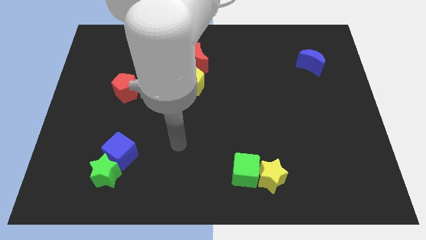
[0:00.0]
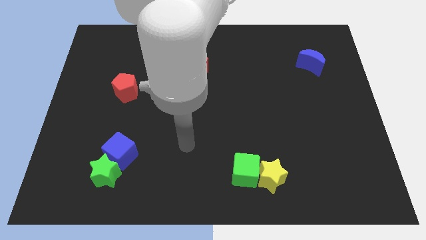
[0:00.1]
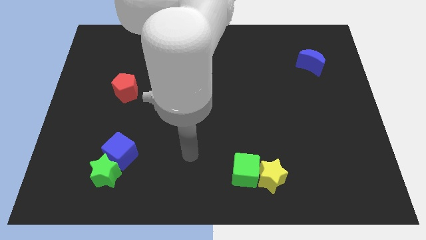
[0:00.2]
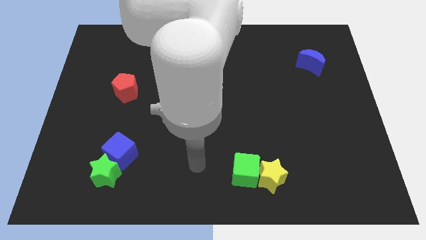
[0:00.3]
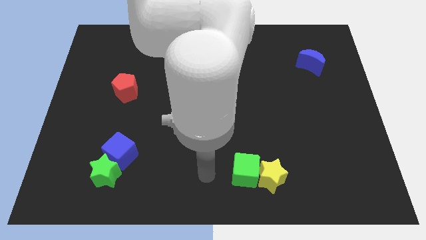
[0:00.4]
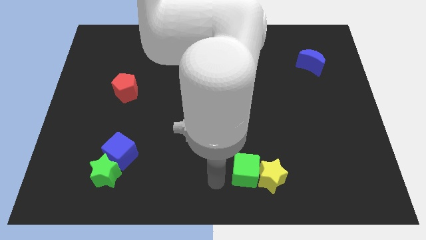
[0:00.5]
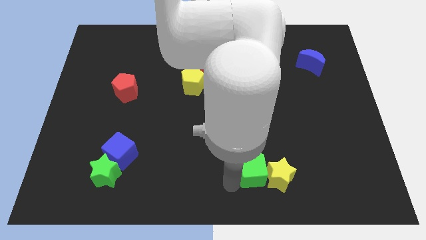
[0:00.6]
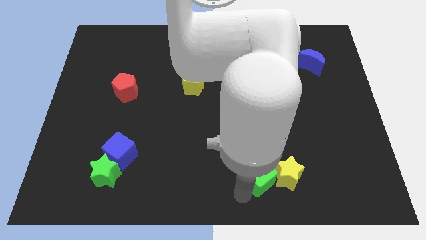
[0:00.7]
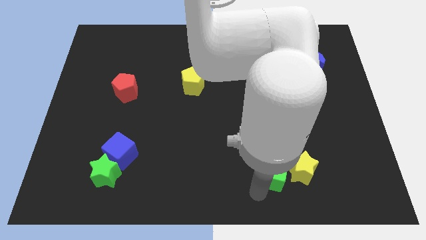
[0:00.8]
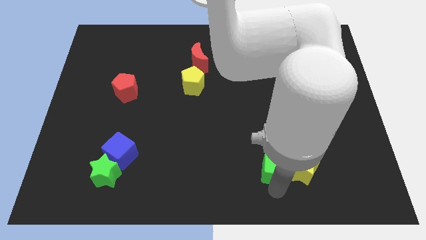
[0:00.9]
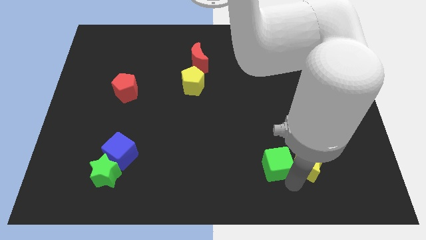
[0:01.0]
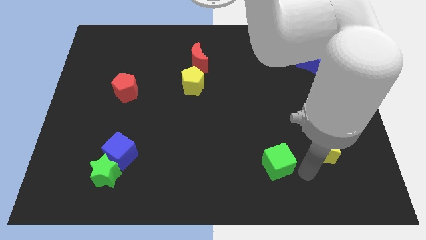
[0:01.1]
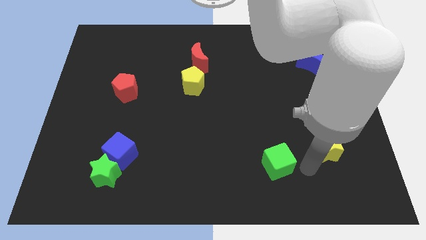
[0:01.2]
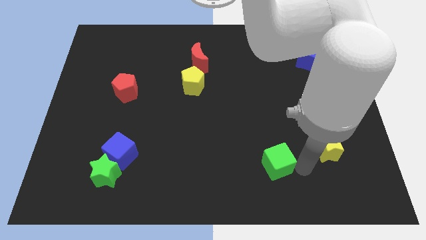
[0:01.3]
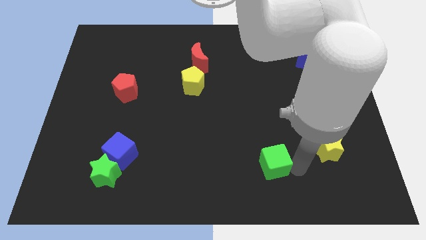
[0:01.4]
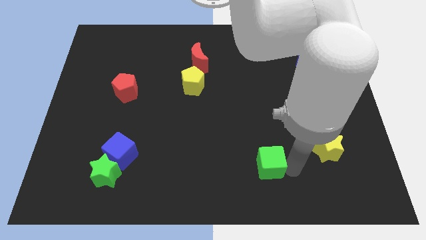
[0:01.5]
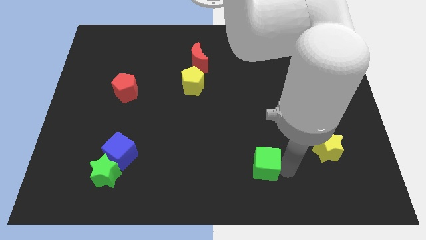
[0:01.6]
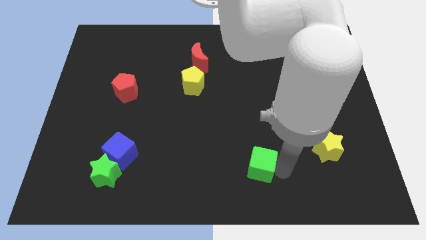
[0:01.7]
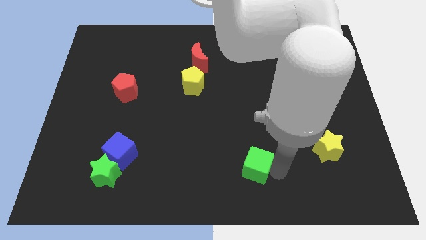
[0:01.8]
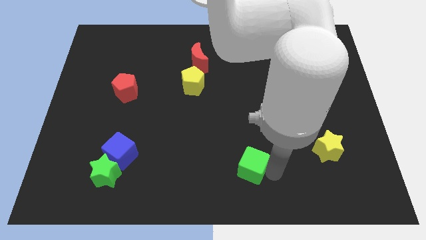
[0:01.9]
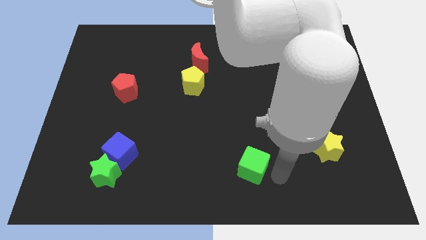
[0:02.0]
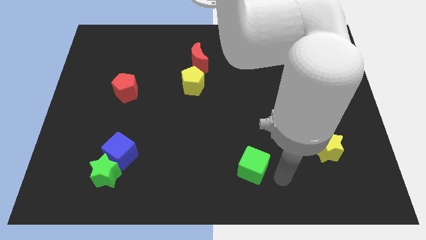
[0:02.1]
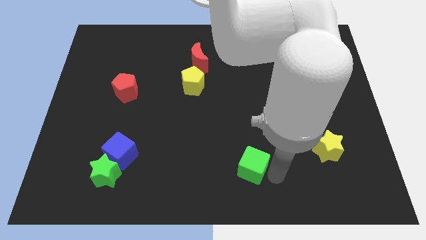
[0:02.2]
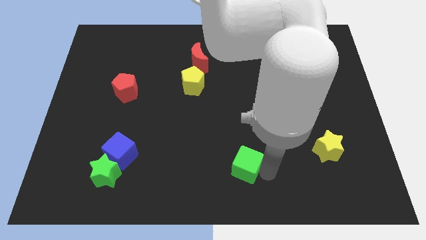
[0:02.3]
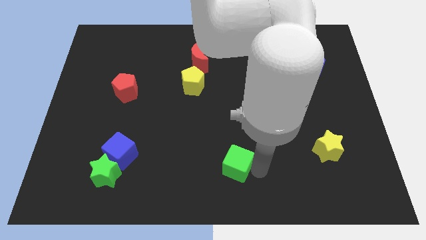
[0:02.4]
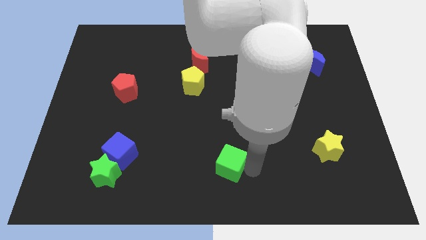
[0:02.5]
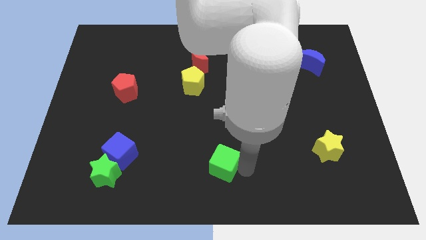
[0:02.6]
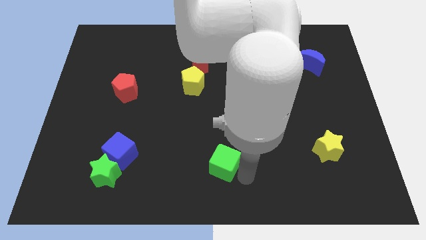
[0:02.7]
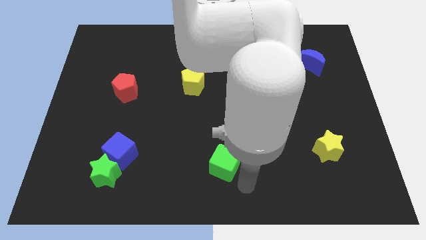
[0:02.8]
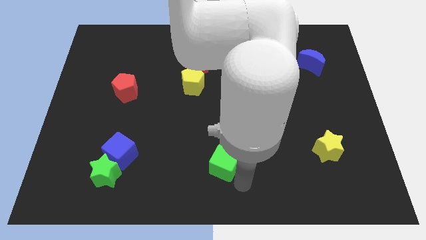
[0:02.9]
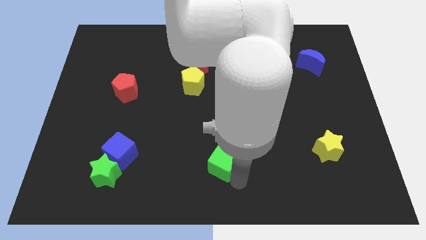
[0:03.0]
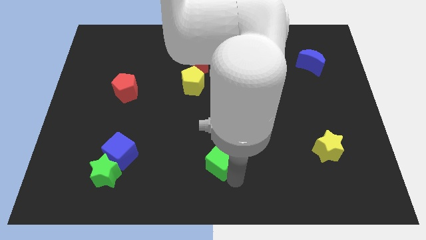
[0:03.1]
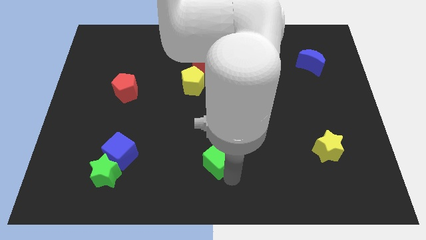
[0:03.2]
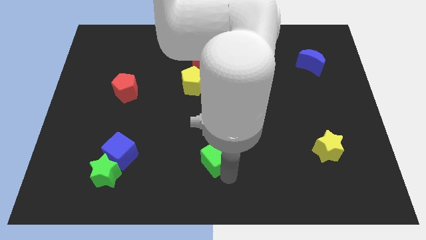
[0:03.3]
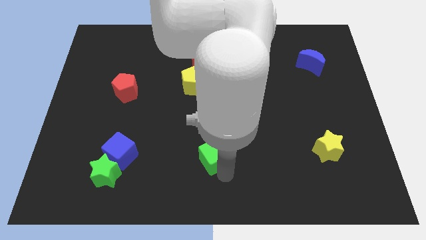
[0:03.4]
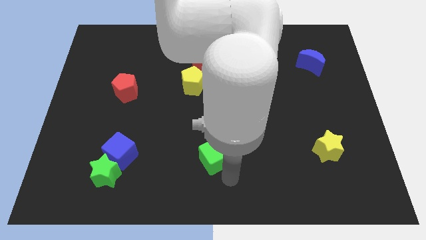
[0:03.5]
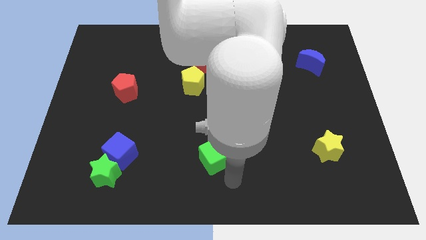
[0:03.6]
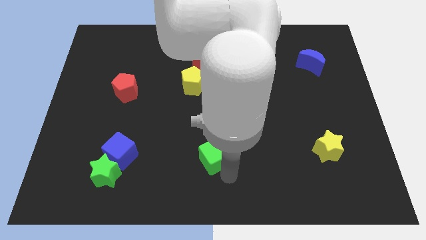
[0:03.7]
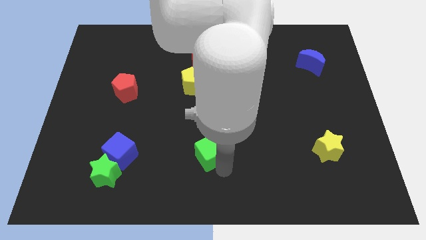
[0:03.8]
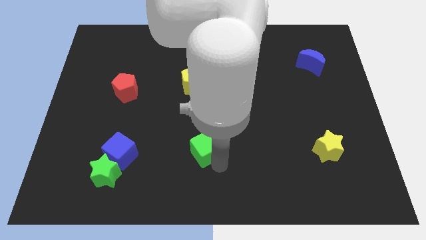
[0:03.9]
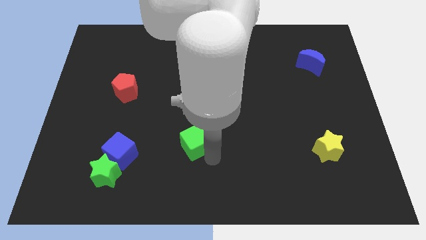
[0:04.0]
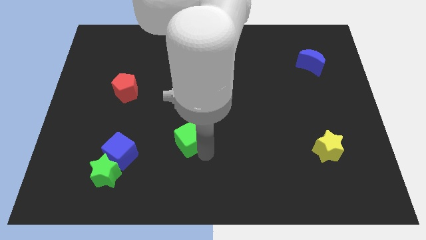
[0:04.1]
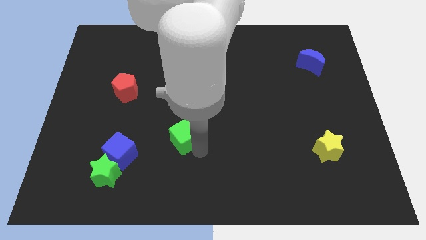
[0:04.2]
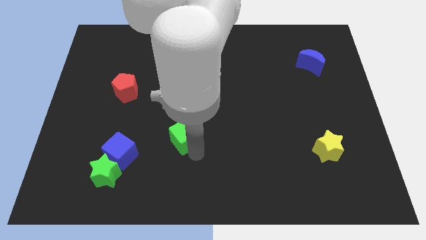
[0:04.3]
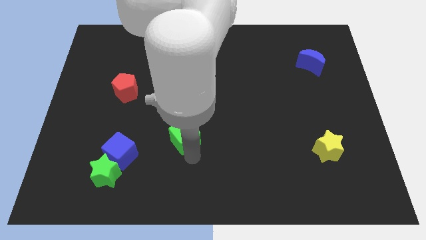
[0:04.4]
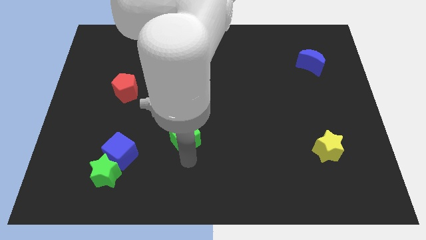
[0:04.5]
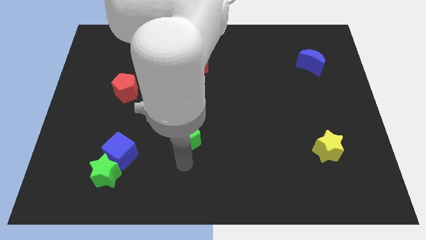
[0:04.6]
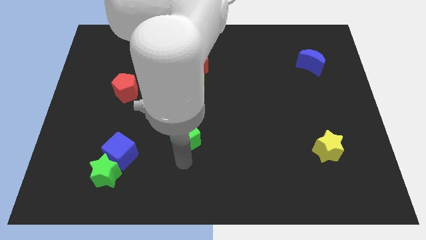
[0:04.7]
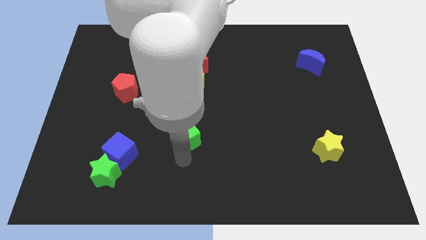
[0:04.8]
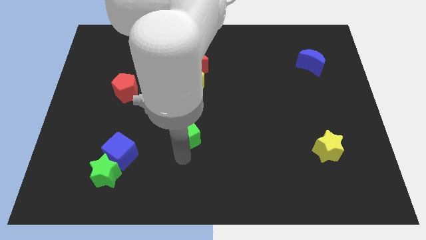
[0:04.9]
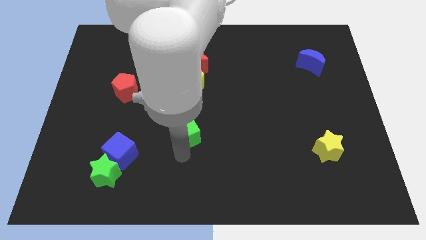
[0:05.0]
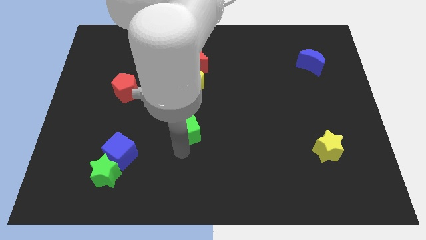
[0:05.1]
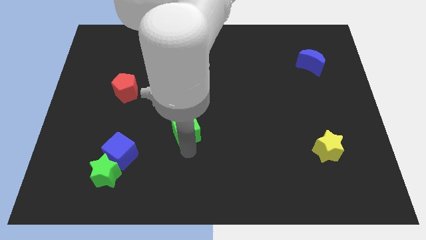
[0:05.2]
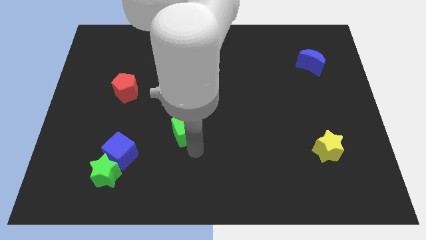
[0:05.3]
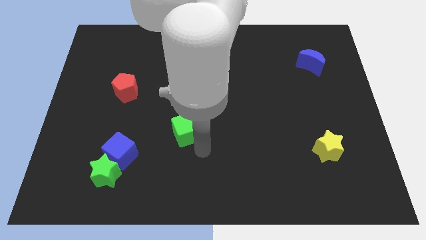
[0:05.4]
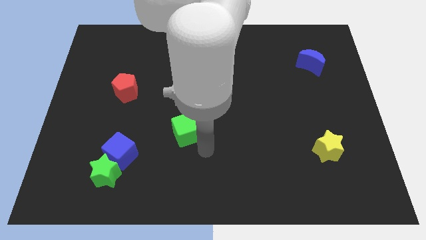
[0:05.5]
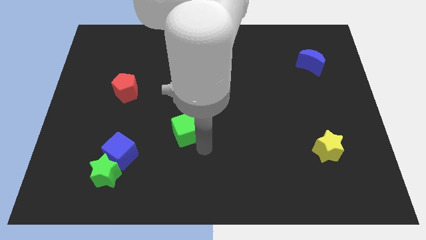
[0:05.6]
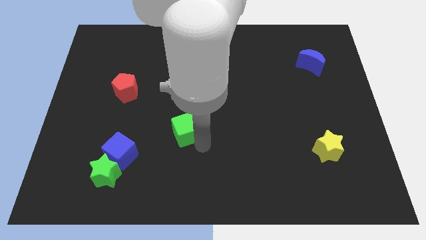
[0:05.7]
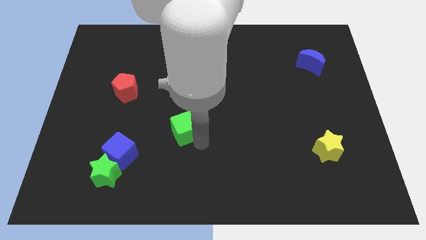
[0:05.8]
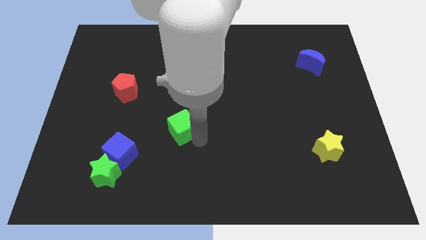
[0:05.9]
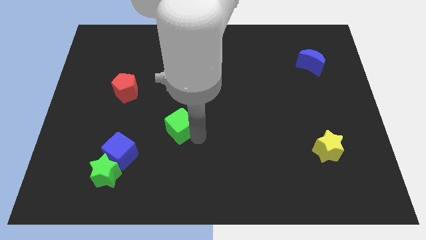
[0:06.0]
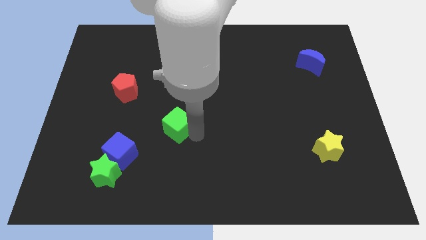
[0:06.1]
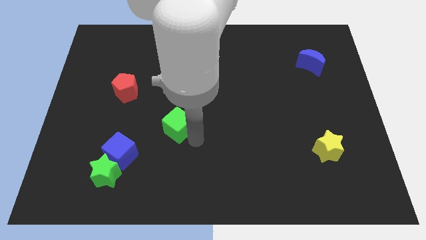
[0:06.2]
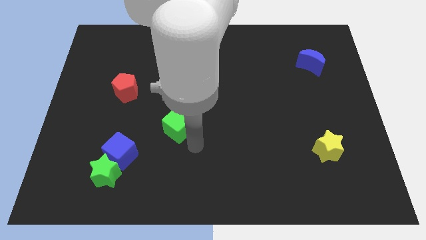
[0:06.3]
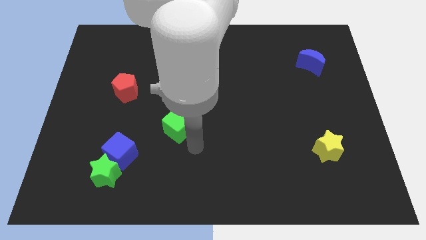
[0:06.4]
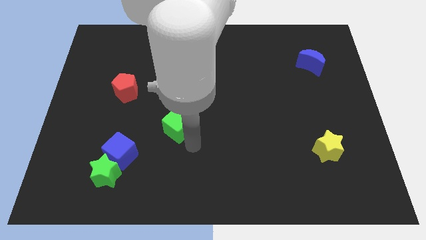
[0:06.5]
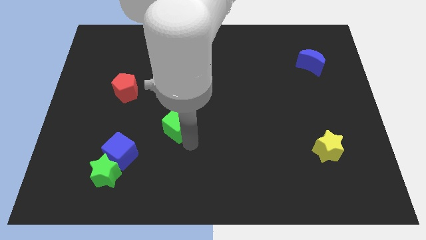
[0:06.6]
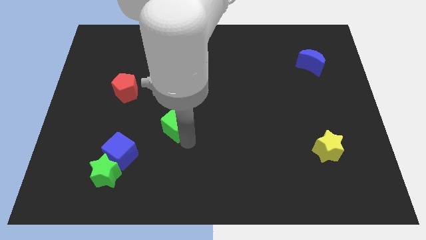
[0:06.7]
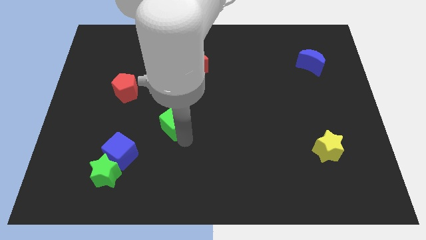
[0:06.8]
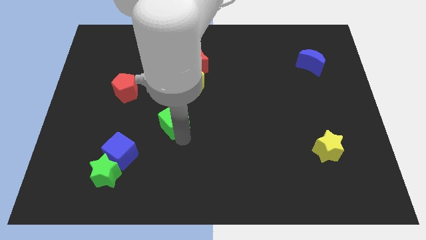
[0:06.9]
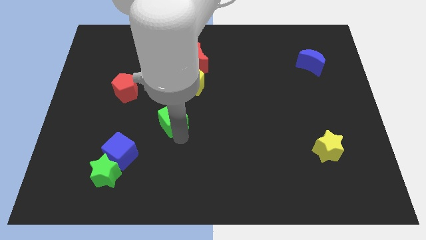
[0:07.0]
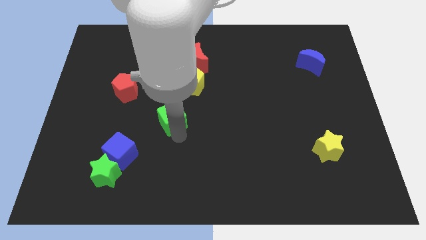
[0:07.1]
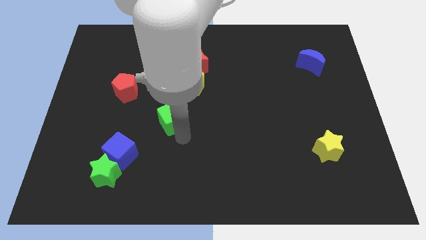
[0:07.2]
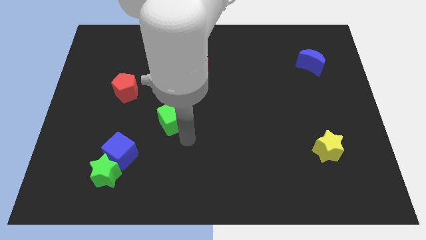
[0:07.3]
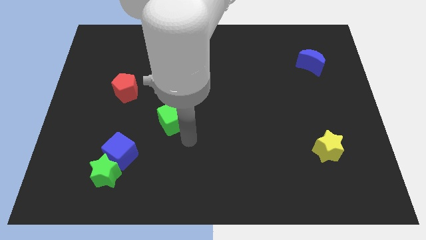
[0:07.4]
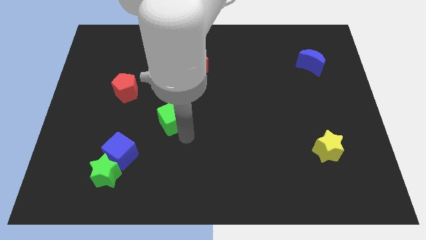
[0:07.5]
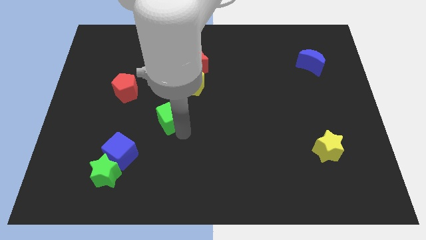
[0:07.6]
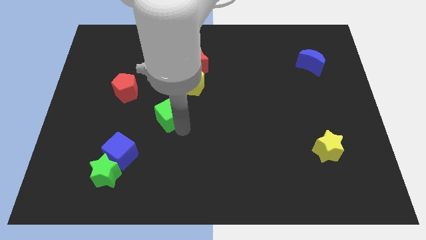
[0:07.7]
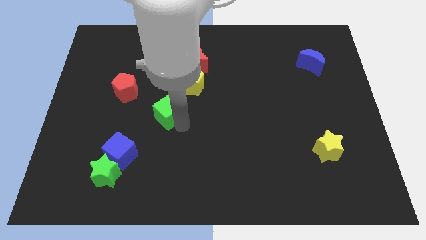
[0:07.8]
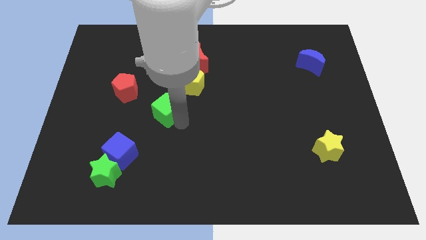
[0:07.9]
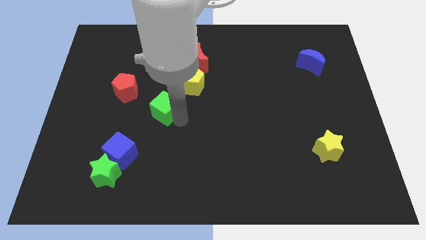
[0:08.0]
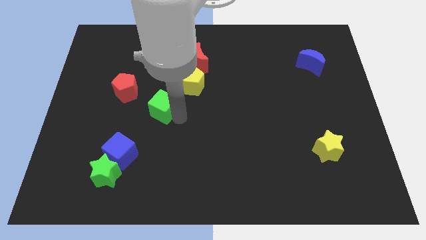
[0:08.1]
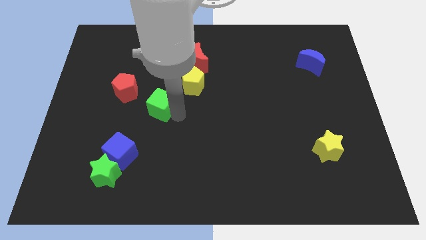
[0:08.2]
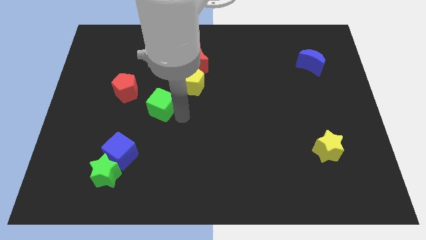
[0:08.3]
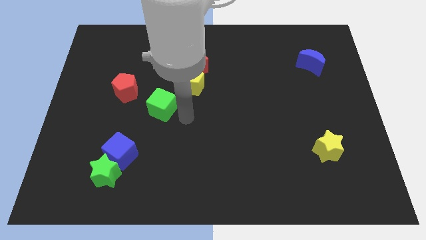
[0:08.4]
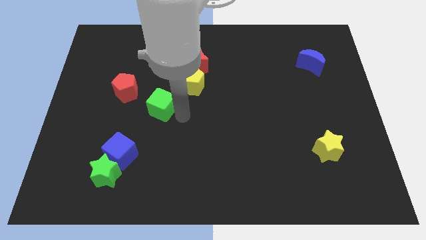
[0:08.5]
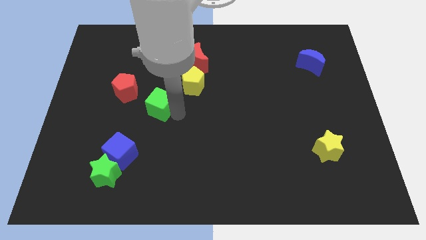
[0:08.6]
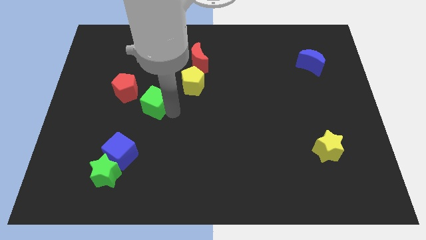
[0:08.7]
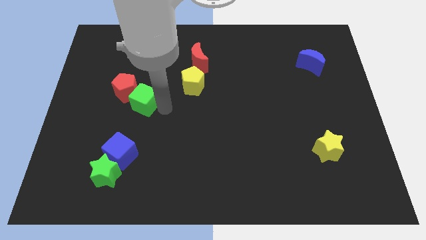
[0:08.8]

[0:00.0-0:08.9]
slide the green cube towards the red pentagon
